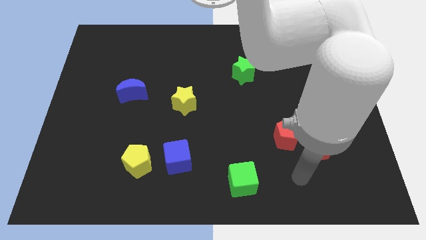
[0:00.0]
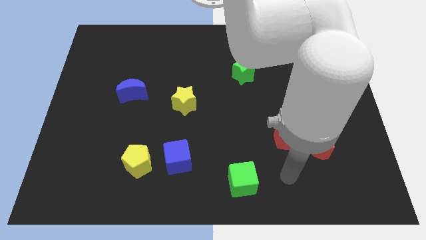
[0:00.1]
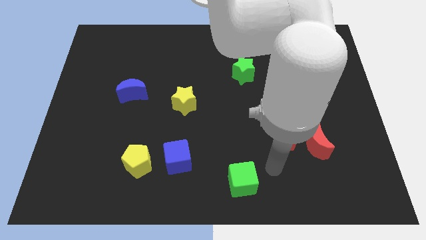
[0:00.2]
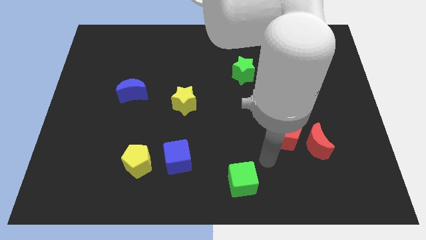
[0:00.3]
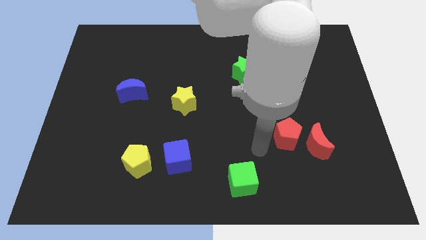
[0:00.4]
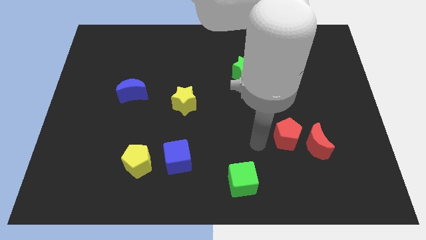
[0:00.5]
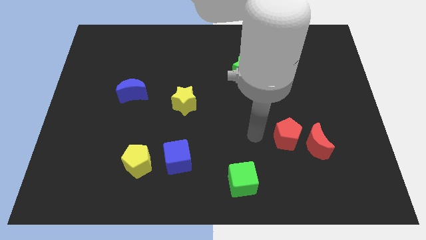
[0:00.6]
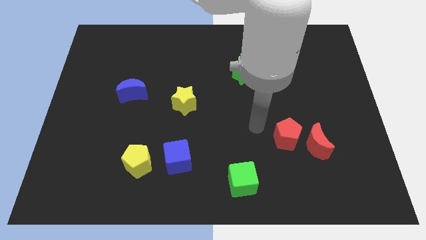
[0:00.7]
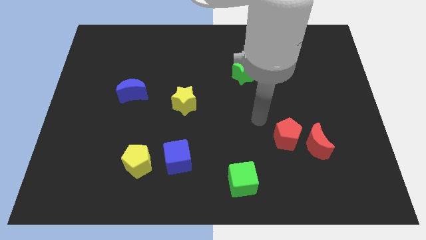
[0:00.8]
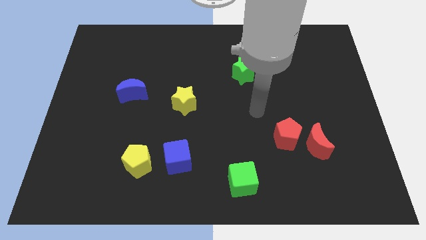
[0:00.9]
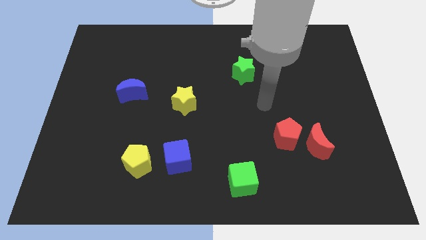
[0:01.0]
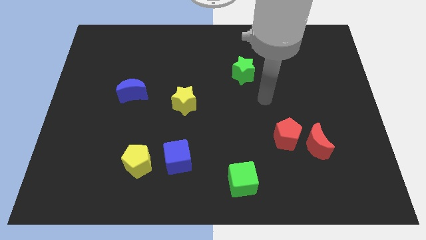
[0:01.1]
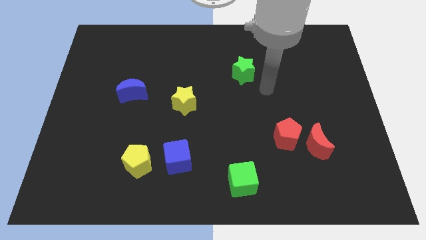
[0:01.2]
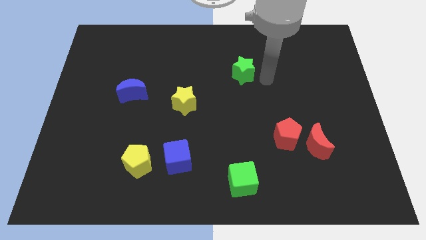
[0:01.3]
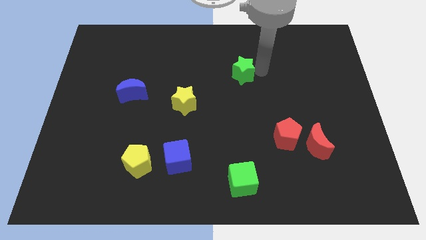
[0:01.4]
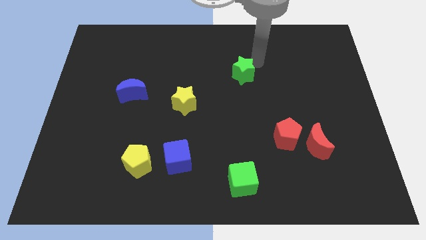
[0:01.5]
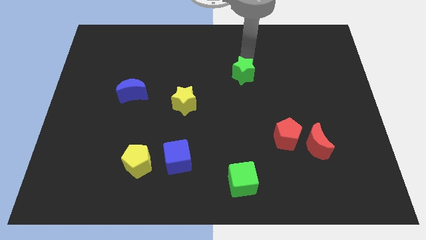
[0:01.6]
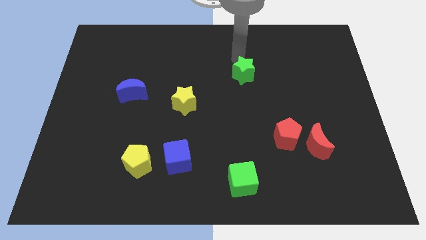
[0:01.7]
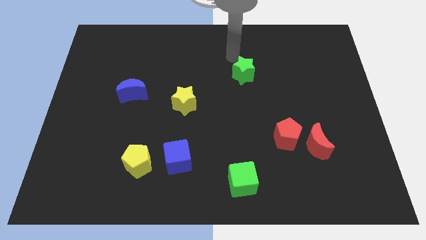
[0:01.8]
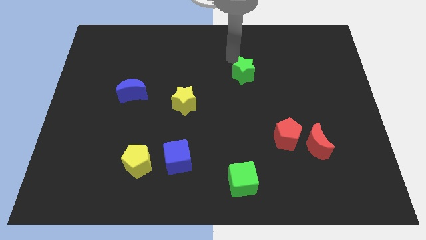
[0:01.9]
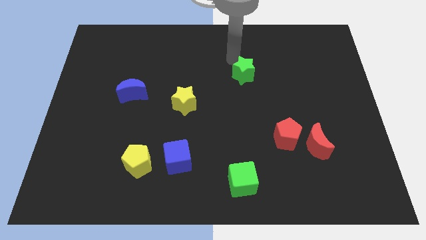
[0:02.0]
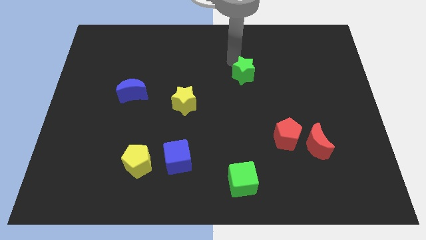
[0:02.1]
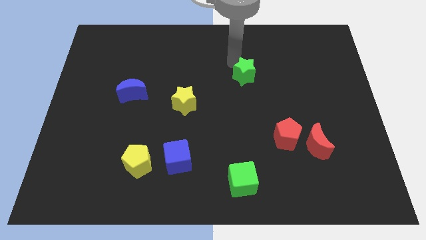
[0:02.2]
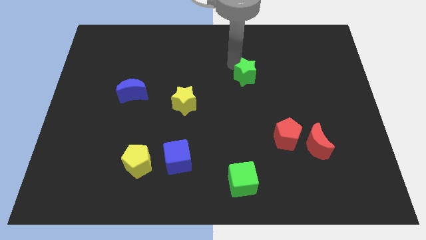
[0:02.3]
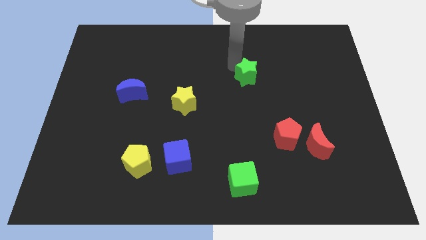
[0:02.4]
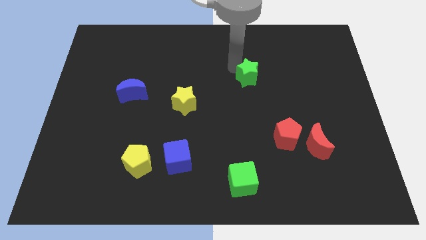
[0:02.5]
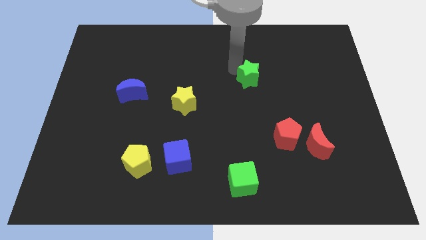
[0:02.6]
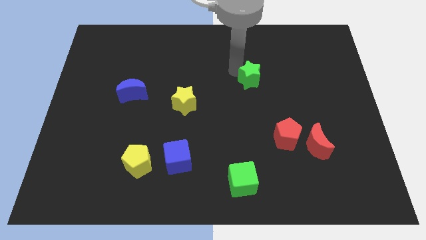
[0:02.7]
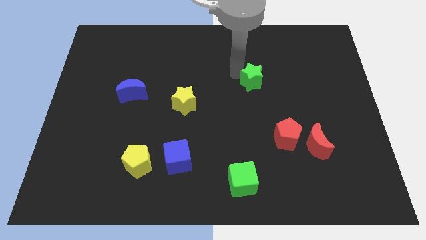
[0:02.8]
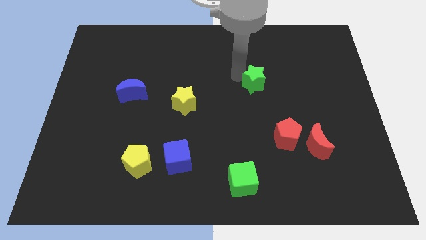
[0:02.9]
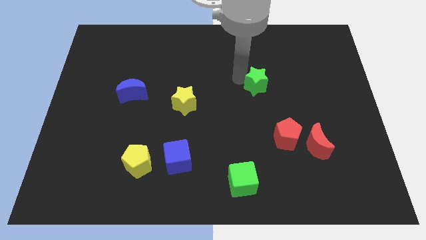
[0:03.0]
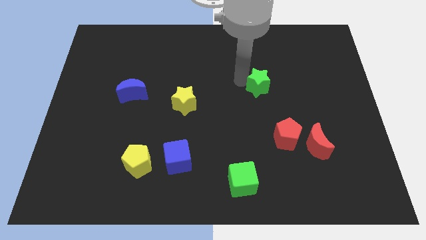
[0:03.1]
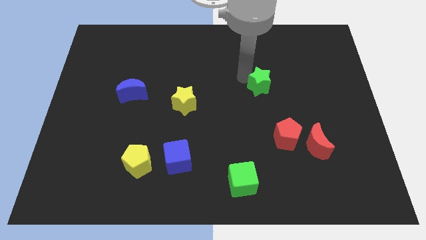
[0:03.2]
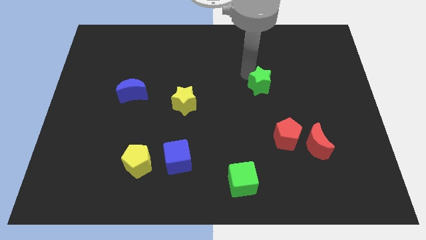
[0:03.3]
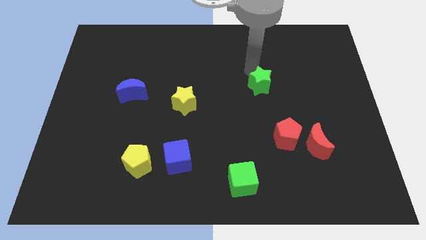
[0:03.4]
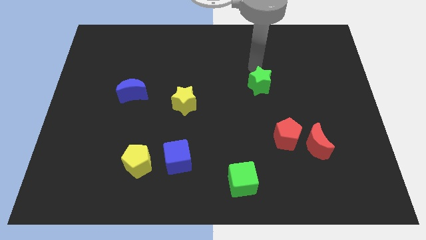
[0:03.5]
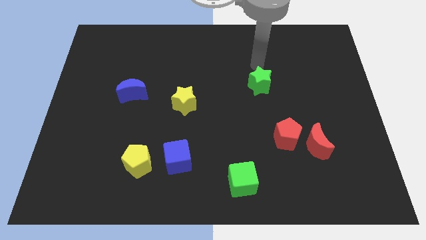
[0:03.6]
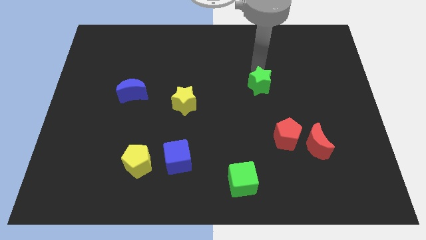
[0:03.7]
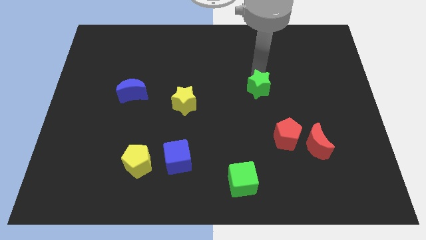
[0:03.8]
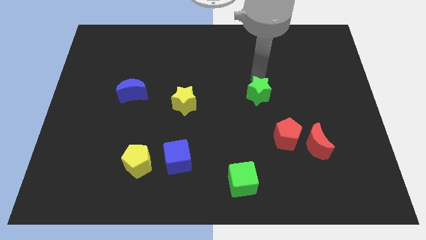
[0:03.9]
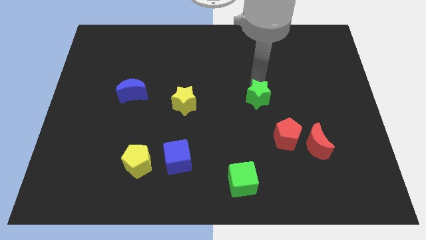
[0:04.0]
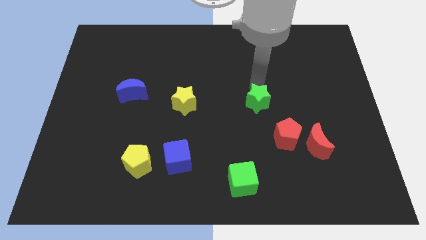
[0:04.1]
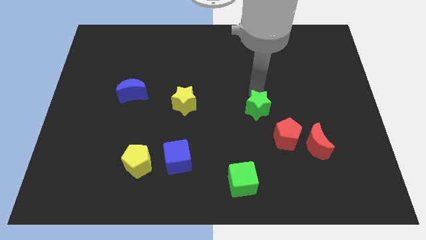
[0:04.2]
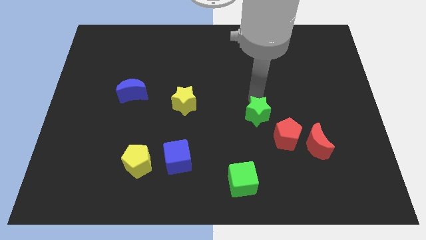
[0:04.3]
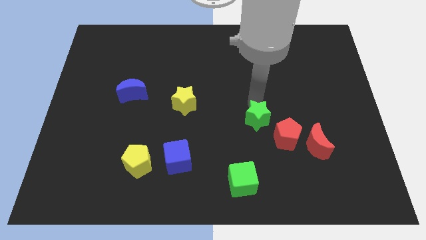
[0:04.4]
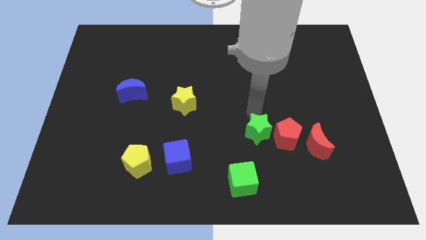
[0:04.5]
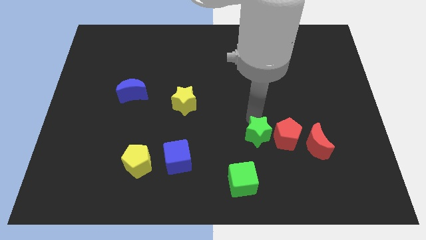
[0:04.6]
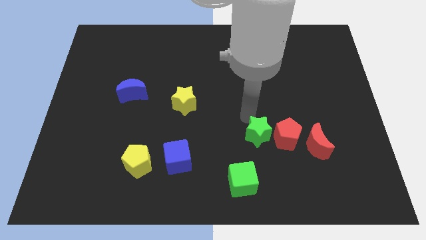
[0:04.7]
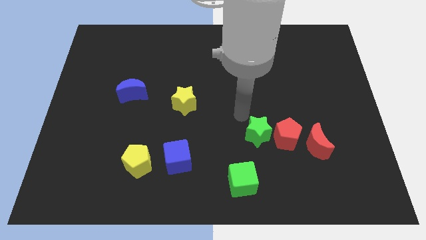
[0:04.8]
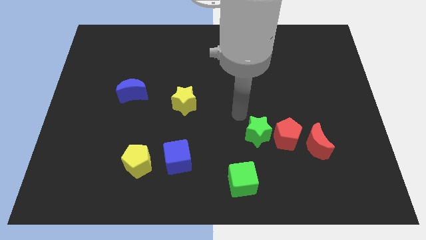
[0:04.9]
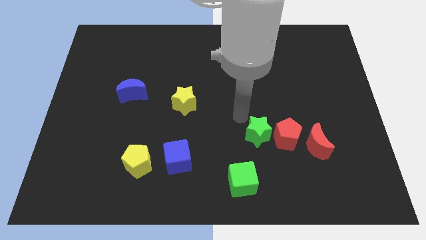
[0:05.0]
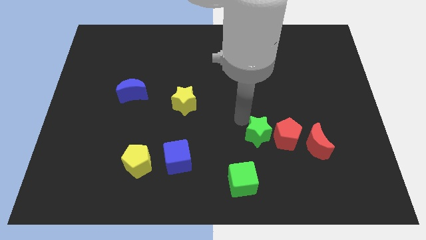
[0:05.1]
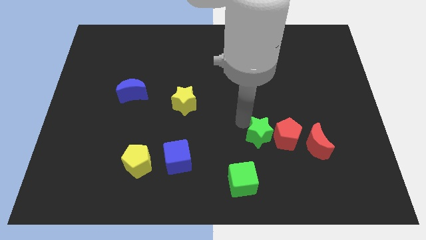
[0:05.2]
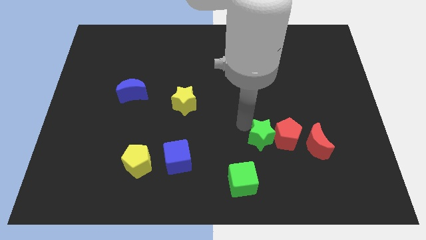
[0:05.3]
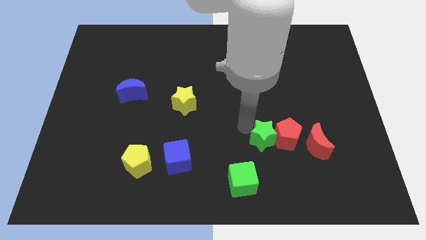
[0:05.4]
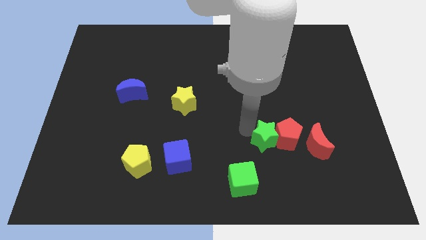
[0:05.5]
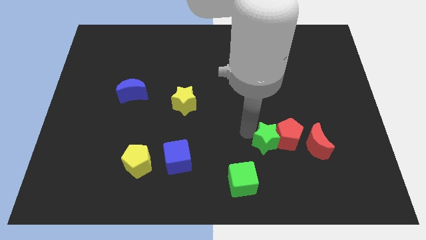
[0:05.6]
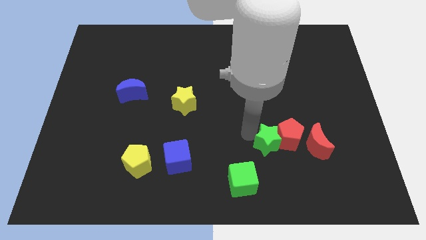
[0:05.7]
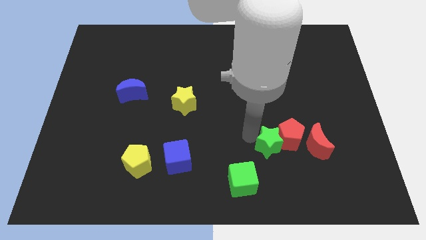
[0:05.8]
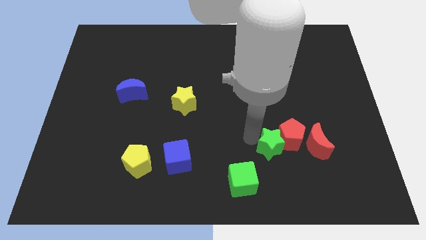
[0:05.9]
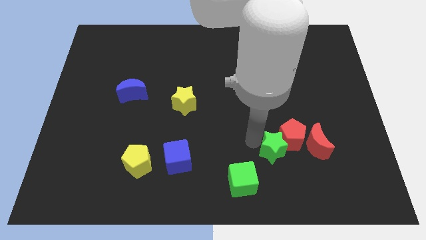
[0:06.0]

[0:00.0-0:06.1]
slide the green star to the bottom side of the red pentagon

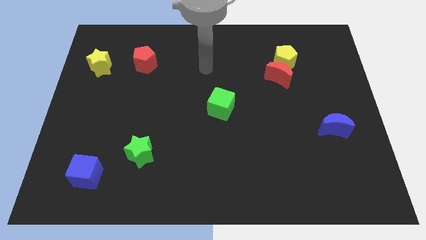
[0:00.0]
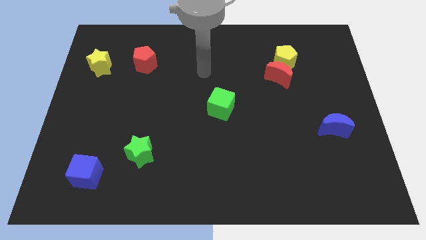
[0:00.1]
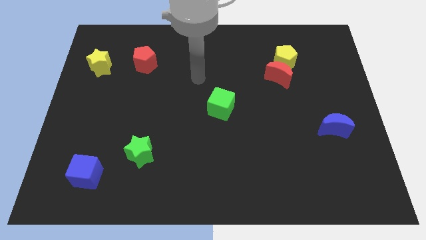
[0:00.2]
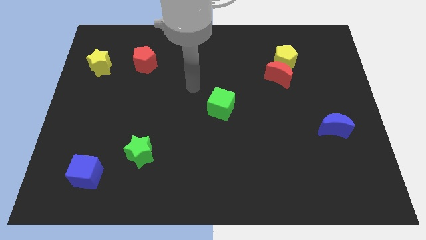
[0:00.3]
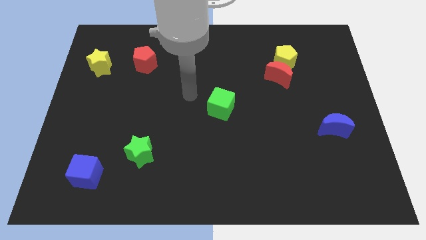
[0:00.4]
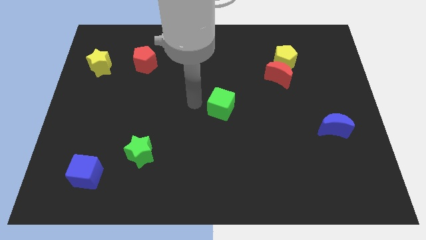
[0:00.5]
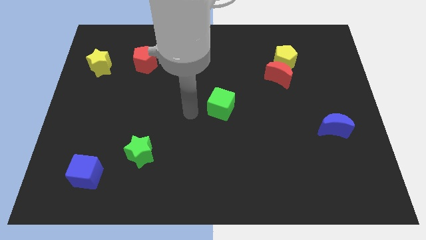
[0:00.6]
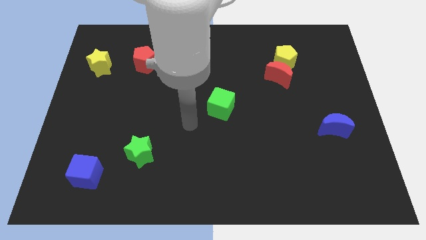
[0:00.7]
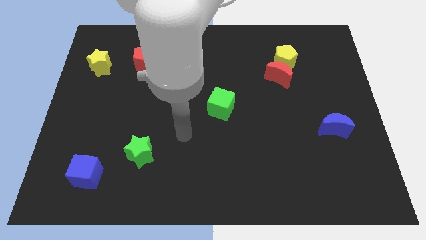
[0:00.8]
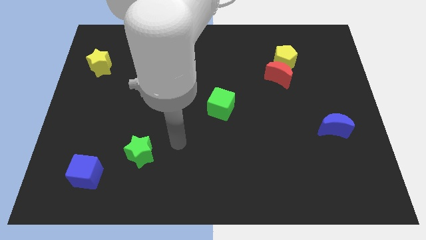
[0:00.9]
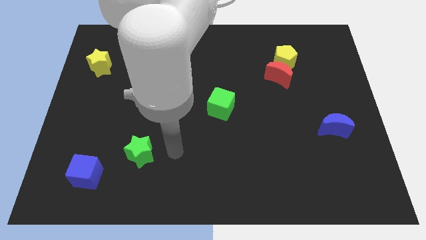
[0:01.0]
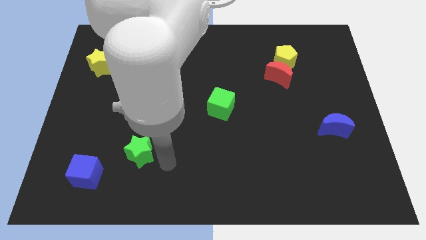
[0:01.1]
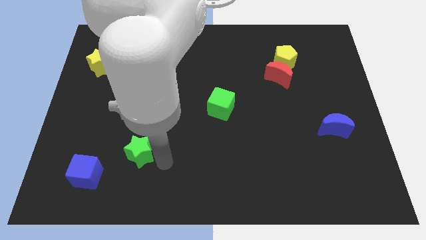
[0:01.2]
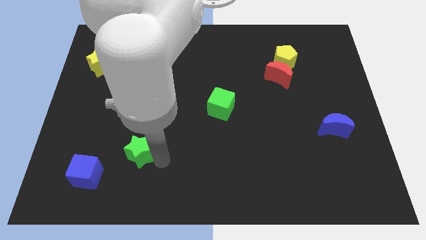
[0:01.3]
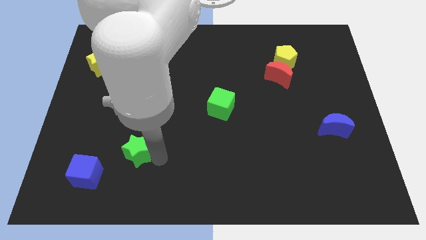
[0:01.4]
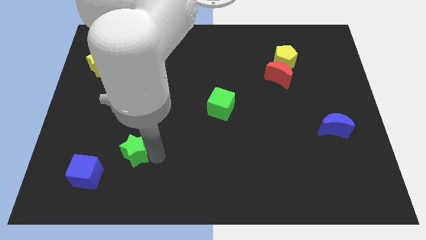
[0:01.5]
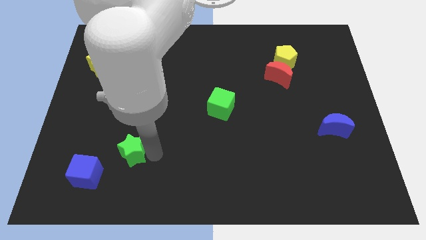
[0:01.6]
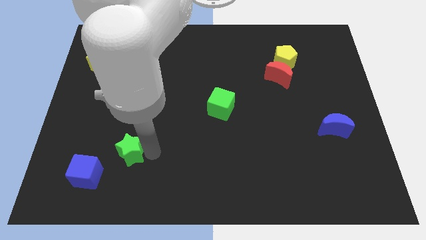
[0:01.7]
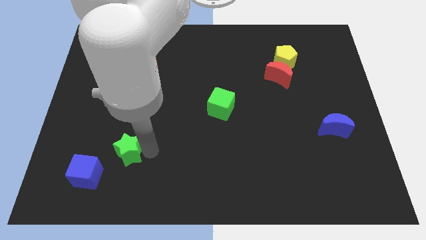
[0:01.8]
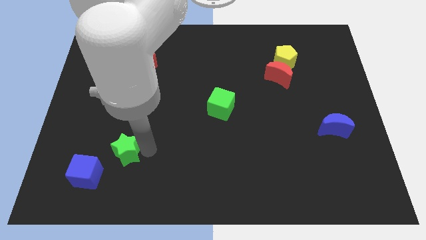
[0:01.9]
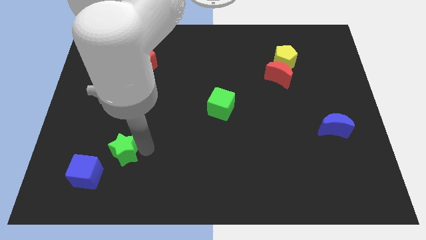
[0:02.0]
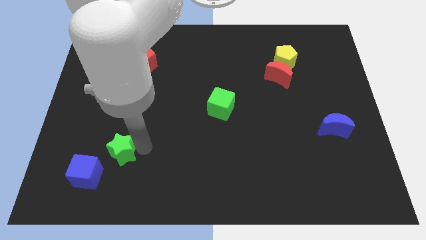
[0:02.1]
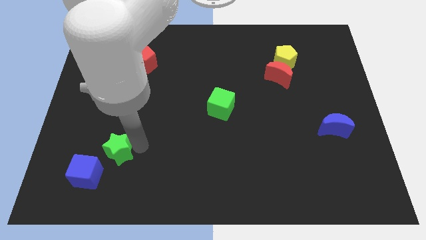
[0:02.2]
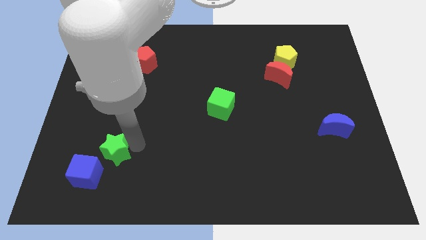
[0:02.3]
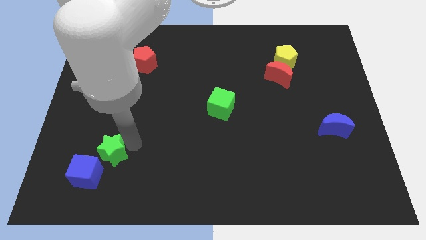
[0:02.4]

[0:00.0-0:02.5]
move the green star above the blue cube
